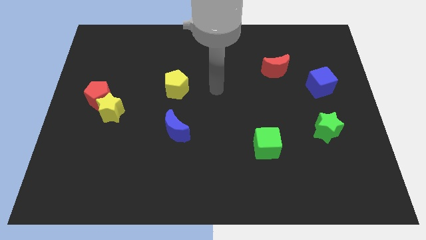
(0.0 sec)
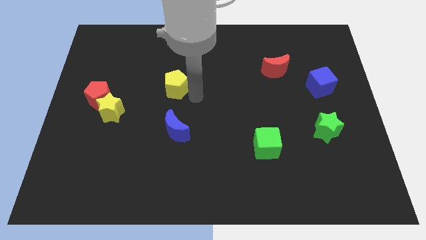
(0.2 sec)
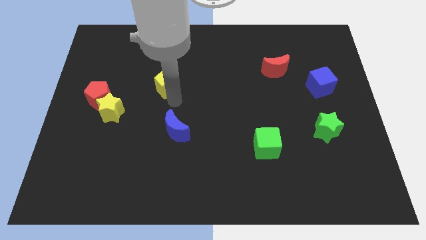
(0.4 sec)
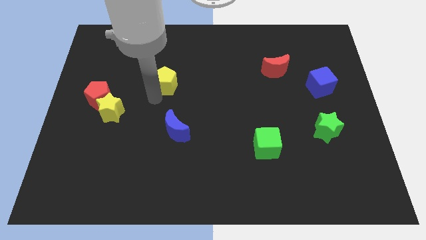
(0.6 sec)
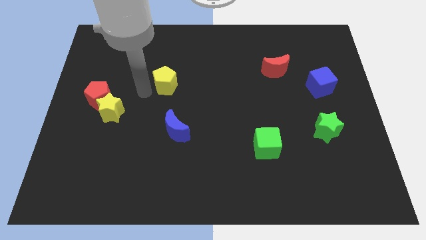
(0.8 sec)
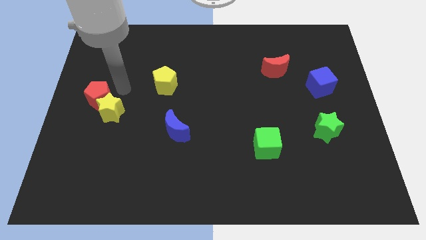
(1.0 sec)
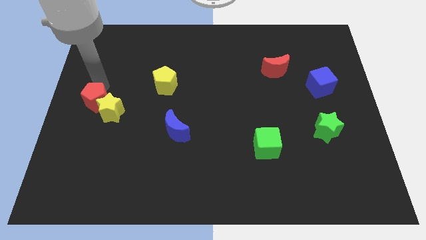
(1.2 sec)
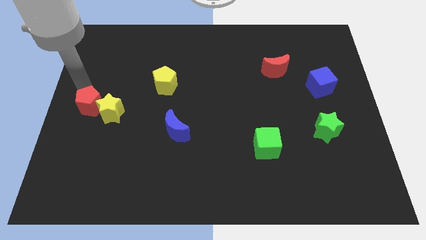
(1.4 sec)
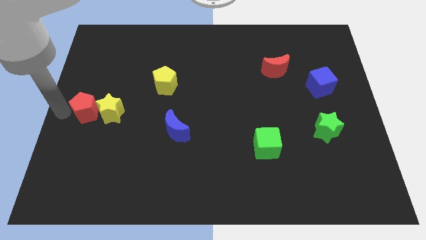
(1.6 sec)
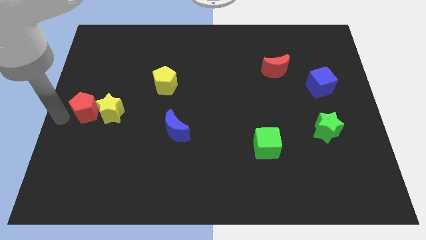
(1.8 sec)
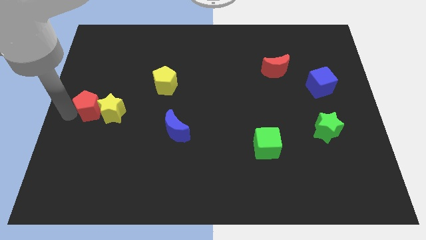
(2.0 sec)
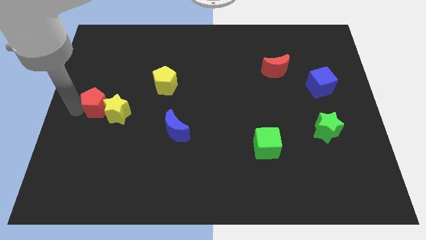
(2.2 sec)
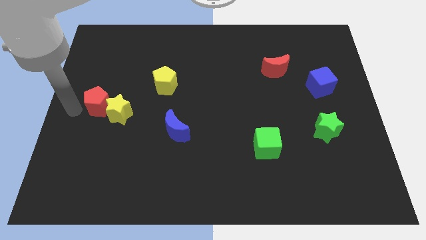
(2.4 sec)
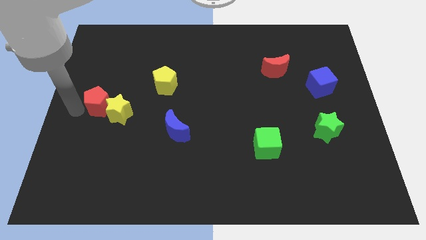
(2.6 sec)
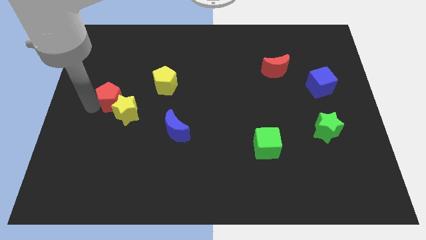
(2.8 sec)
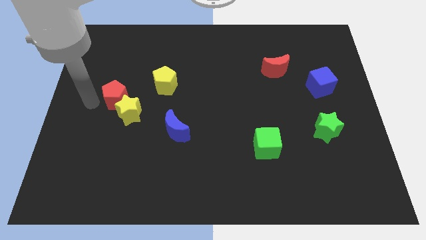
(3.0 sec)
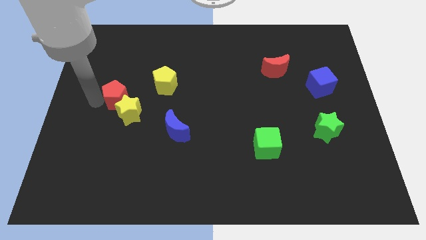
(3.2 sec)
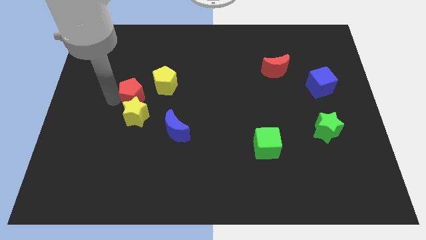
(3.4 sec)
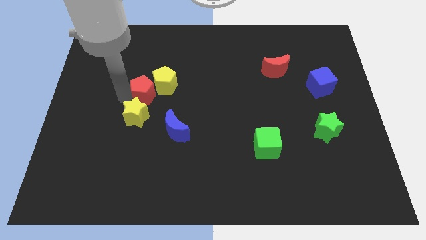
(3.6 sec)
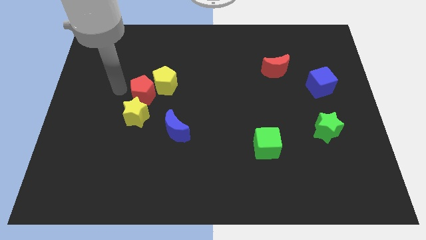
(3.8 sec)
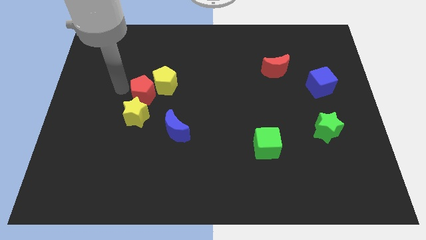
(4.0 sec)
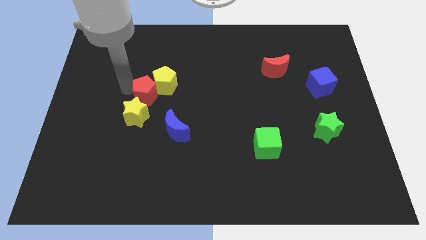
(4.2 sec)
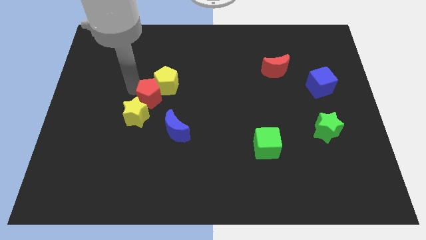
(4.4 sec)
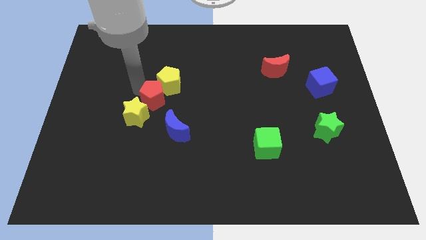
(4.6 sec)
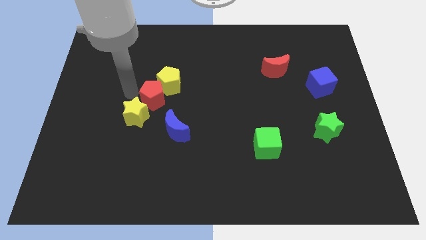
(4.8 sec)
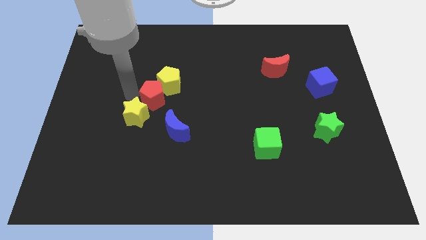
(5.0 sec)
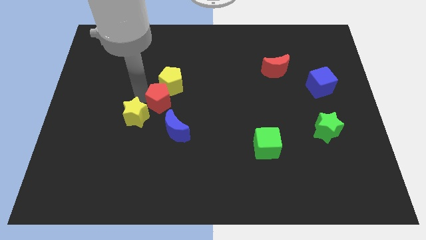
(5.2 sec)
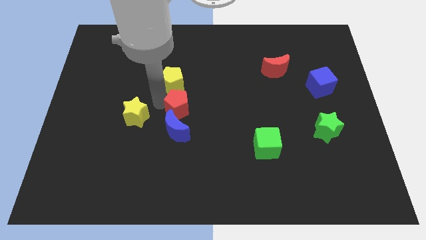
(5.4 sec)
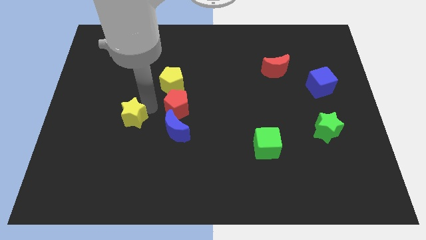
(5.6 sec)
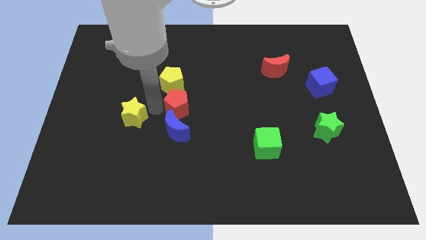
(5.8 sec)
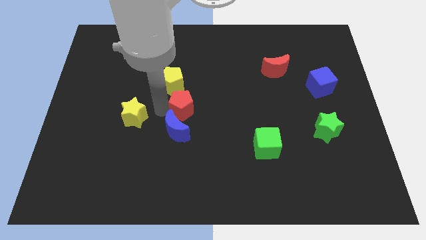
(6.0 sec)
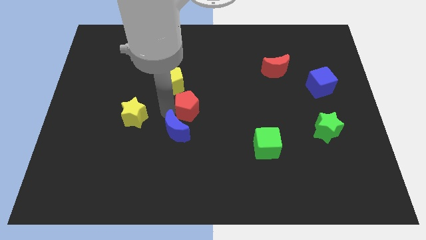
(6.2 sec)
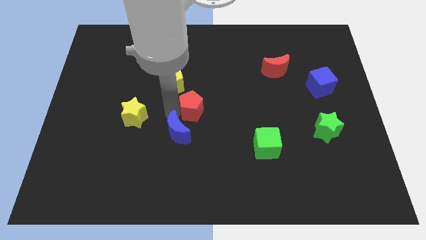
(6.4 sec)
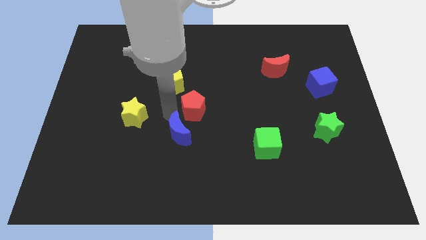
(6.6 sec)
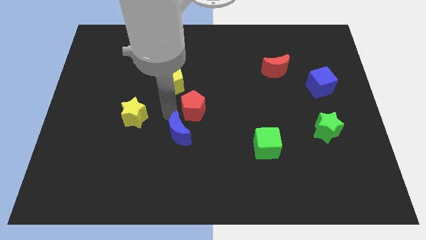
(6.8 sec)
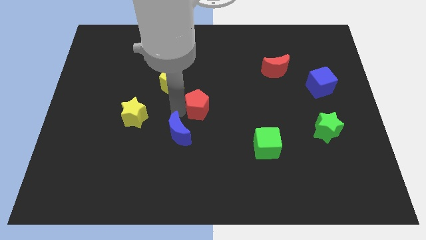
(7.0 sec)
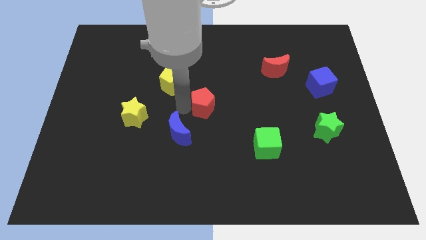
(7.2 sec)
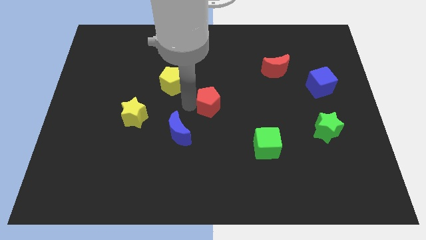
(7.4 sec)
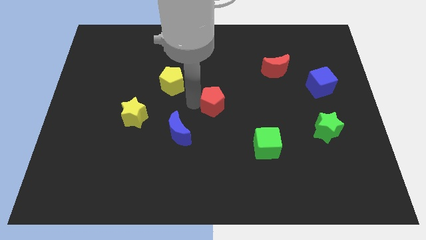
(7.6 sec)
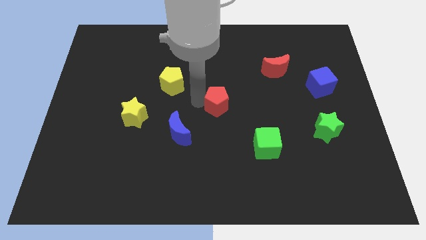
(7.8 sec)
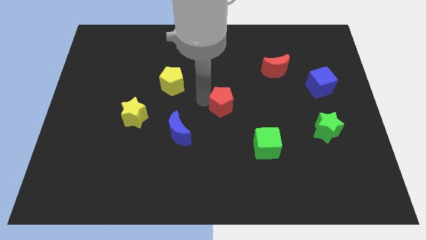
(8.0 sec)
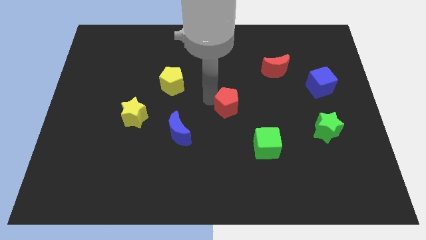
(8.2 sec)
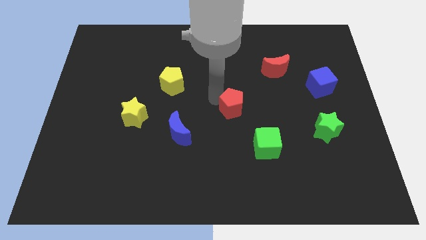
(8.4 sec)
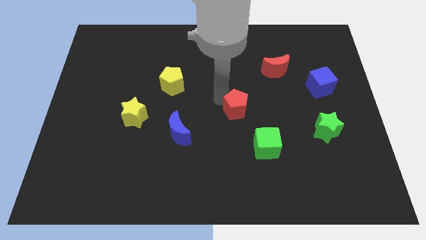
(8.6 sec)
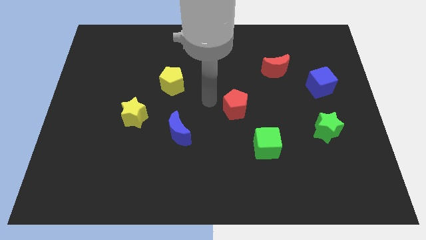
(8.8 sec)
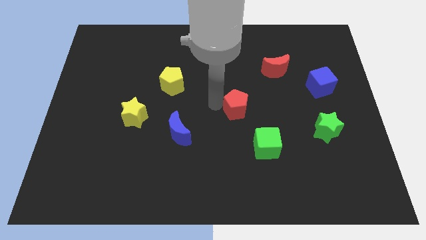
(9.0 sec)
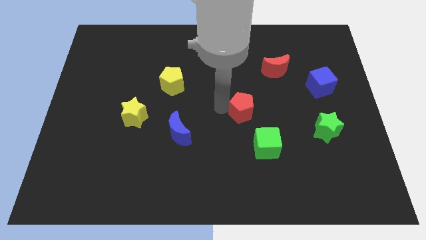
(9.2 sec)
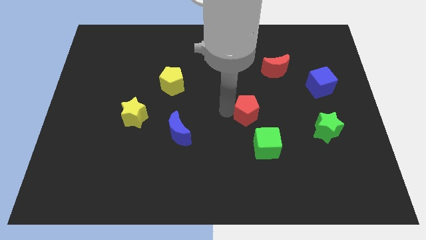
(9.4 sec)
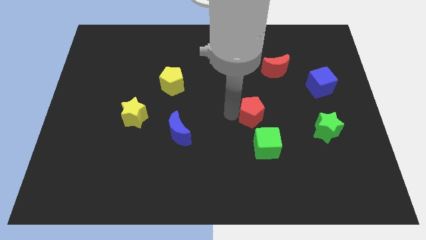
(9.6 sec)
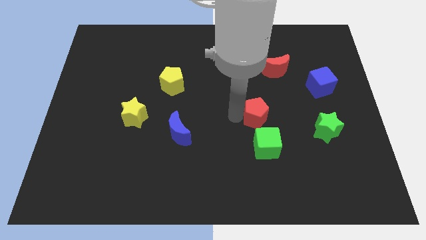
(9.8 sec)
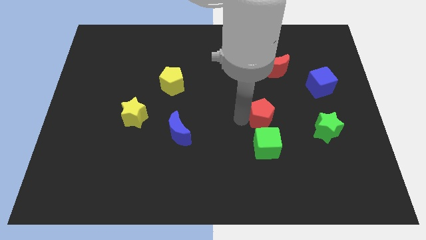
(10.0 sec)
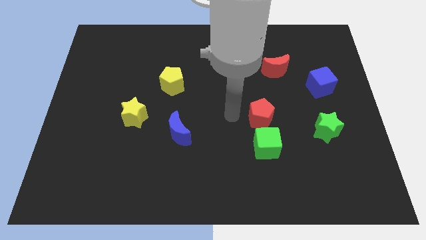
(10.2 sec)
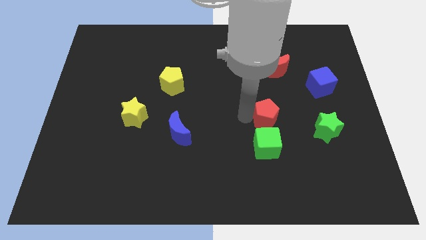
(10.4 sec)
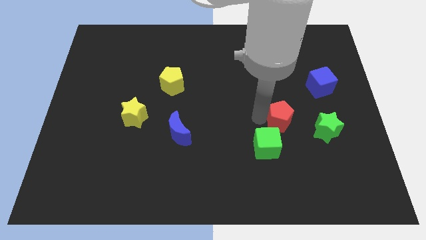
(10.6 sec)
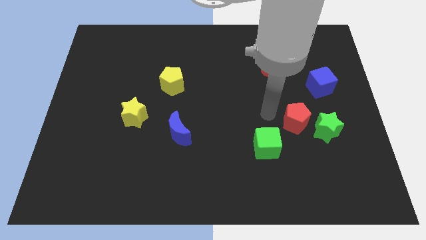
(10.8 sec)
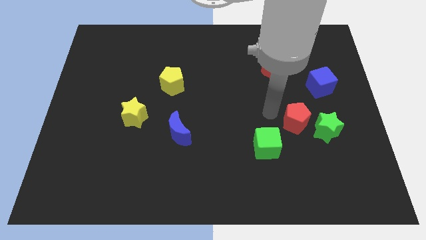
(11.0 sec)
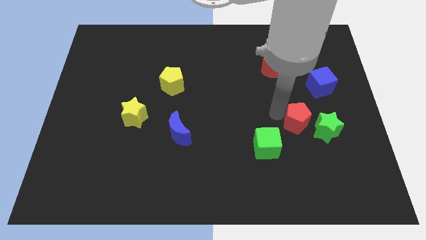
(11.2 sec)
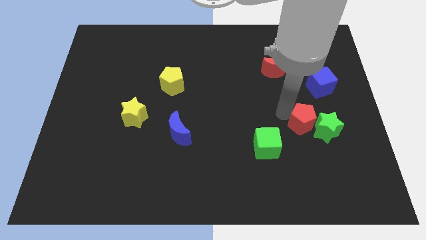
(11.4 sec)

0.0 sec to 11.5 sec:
push the red pentagon close to the green star

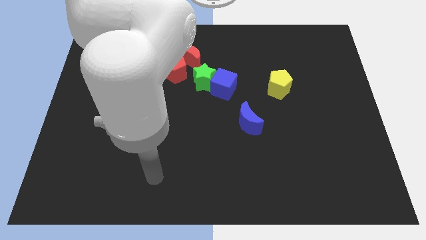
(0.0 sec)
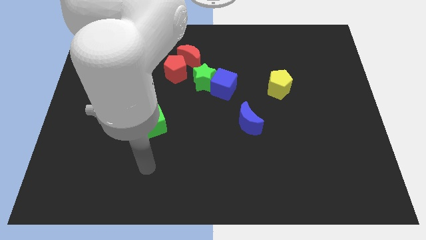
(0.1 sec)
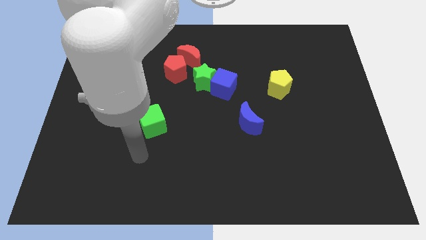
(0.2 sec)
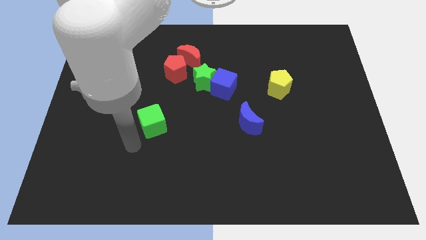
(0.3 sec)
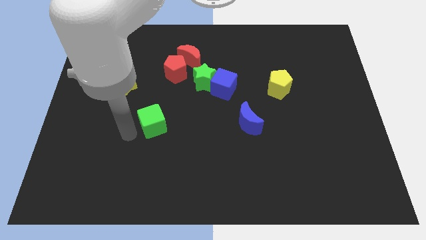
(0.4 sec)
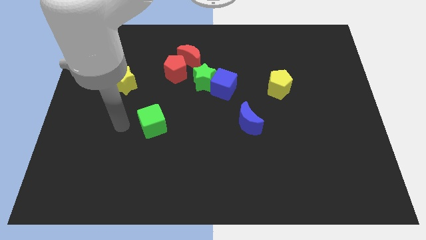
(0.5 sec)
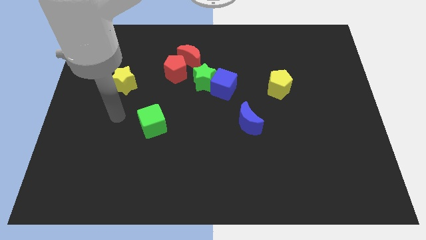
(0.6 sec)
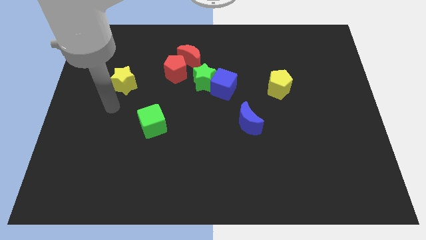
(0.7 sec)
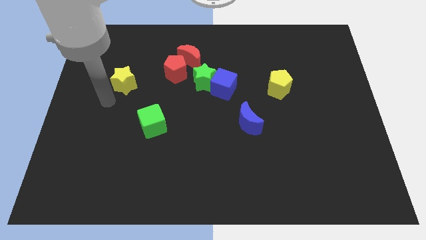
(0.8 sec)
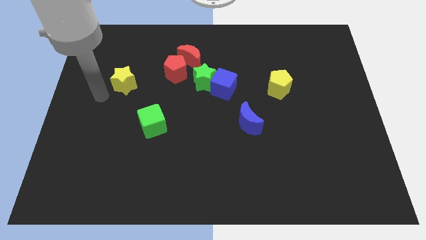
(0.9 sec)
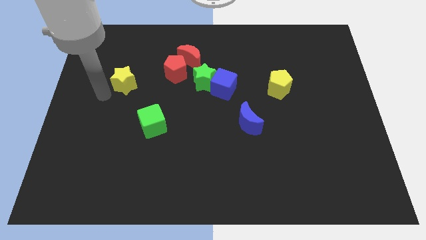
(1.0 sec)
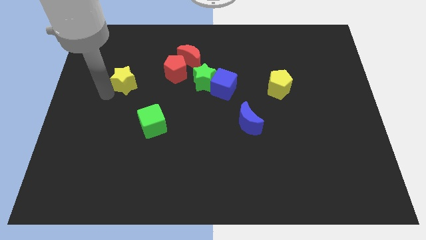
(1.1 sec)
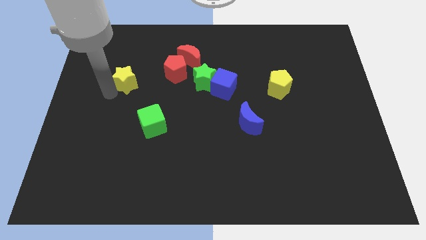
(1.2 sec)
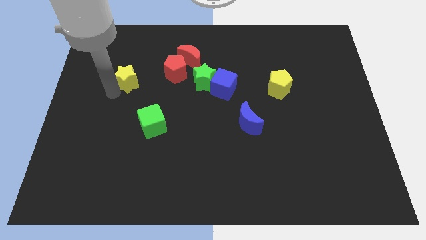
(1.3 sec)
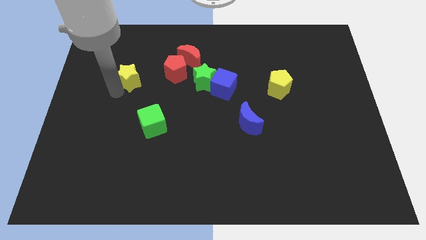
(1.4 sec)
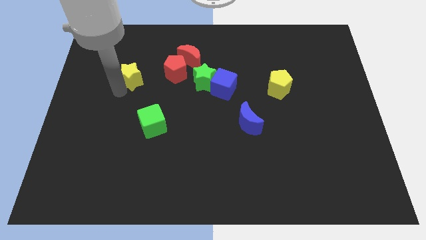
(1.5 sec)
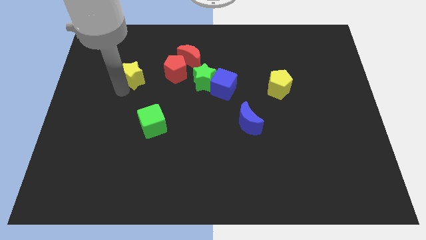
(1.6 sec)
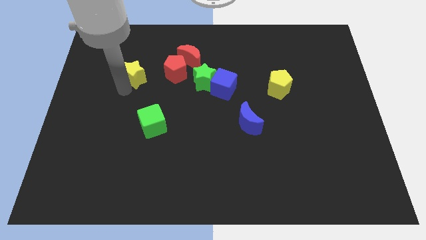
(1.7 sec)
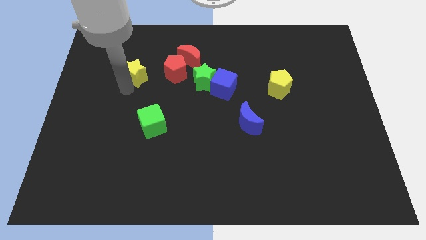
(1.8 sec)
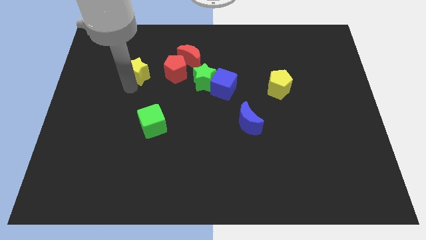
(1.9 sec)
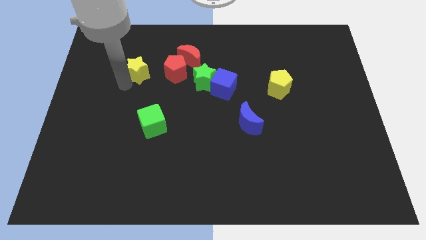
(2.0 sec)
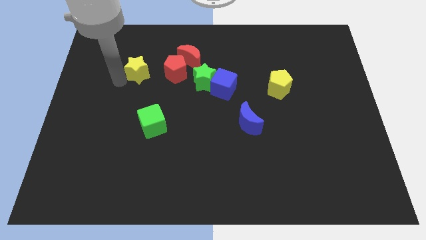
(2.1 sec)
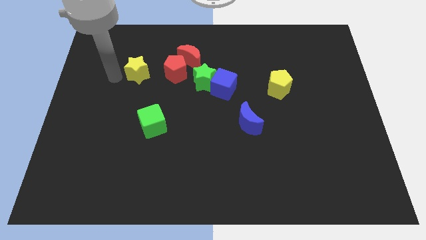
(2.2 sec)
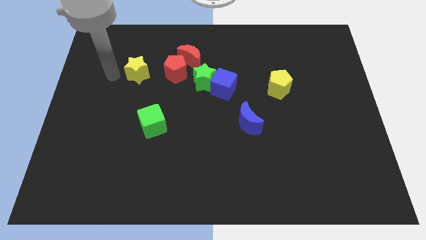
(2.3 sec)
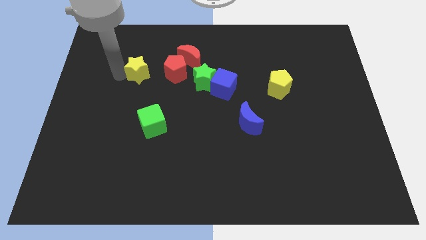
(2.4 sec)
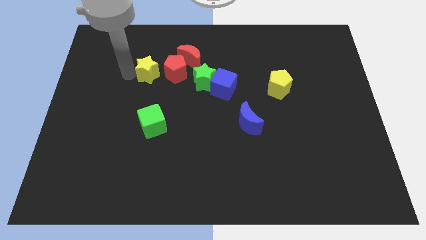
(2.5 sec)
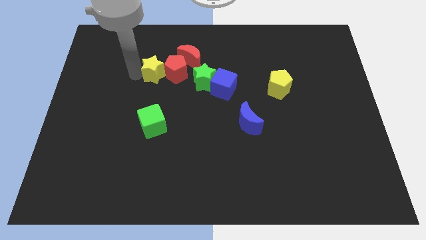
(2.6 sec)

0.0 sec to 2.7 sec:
move the yellow star towards the red pentagon
